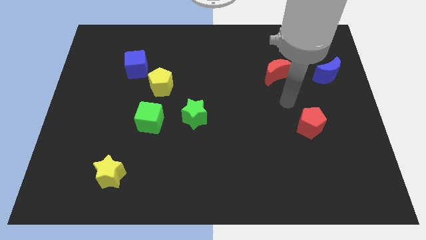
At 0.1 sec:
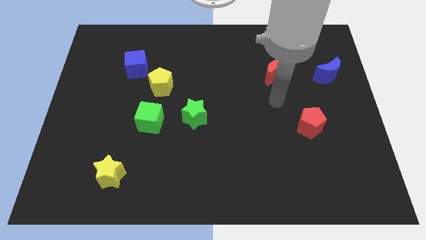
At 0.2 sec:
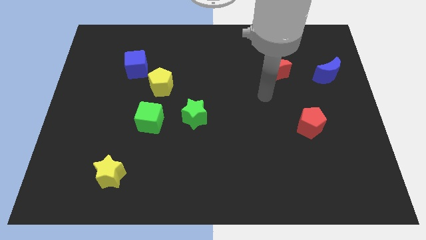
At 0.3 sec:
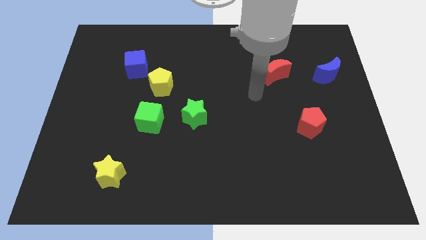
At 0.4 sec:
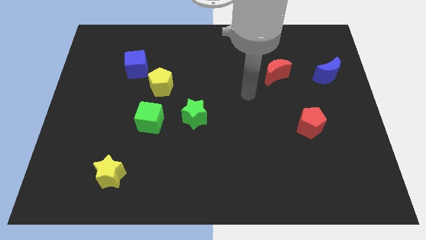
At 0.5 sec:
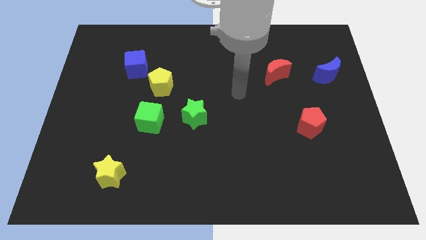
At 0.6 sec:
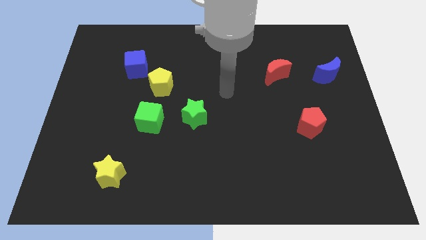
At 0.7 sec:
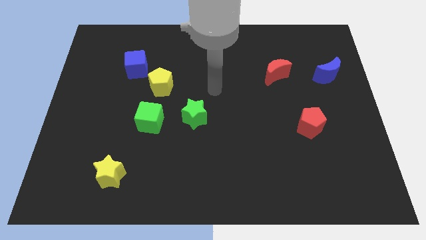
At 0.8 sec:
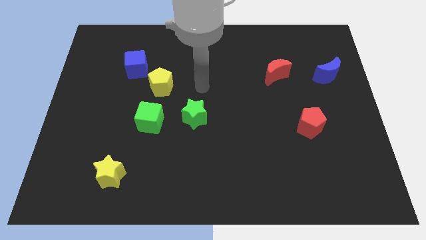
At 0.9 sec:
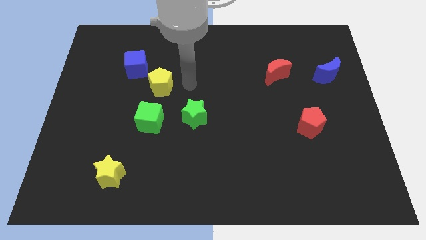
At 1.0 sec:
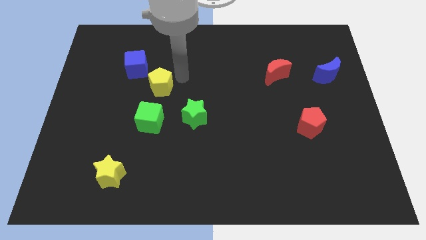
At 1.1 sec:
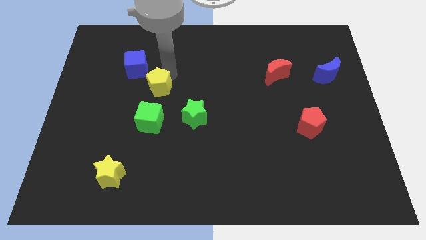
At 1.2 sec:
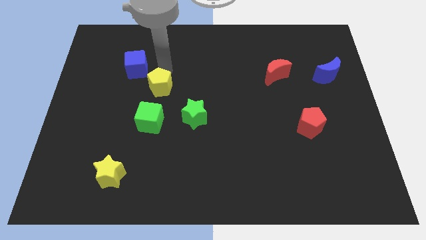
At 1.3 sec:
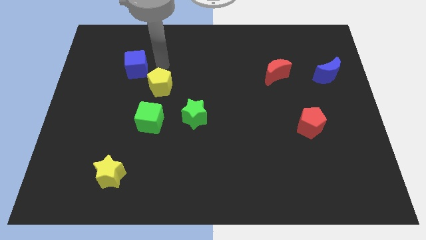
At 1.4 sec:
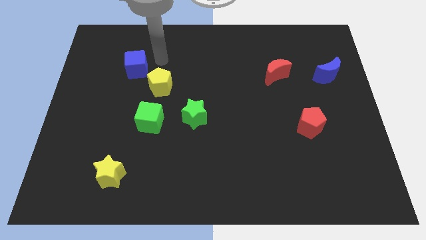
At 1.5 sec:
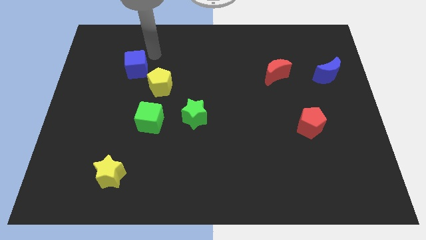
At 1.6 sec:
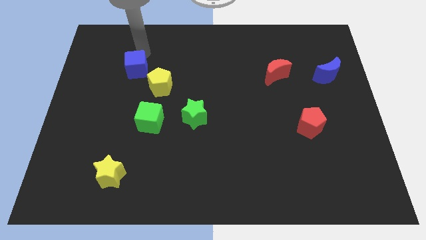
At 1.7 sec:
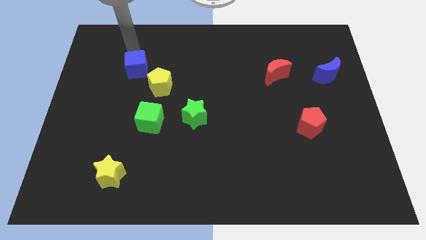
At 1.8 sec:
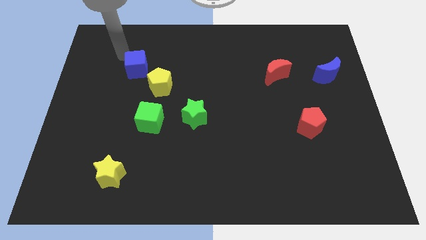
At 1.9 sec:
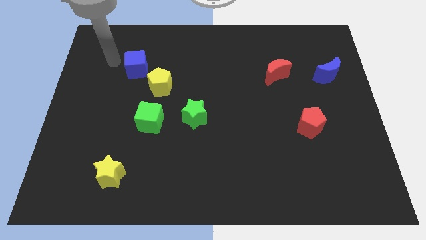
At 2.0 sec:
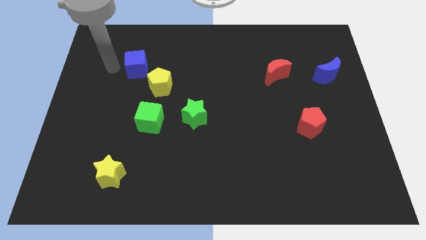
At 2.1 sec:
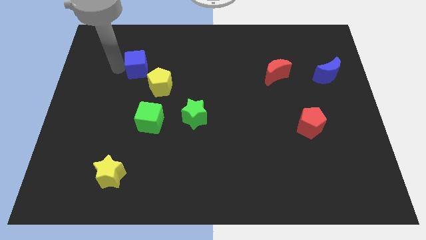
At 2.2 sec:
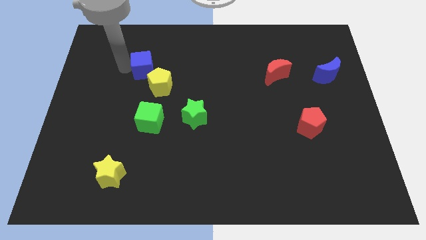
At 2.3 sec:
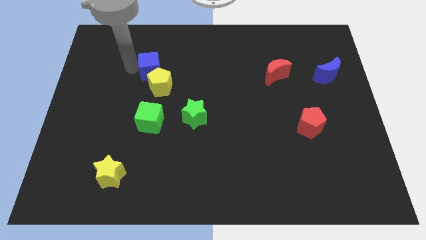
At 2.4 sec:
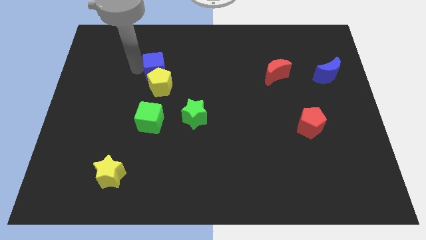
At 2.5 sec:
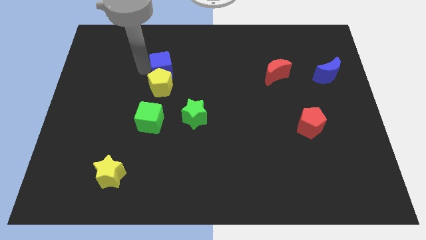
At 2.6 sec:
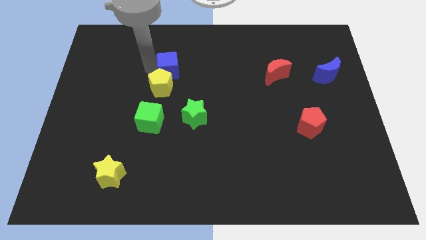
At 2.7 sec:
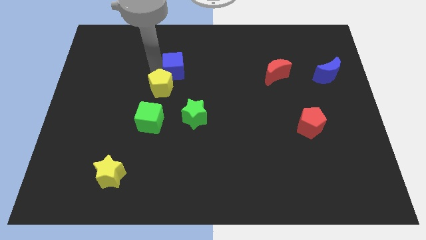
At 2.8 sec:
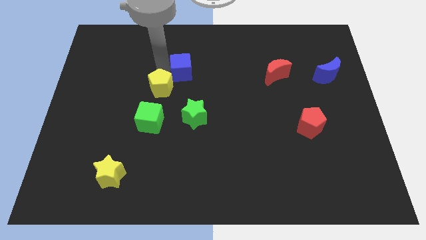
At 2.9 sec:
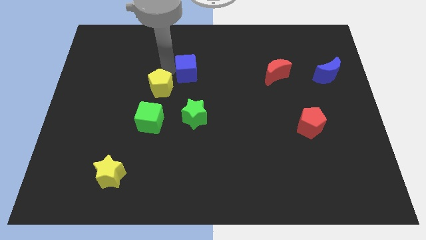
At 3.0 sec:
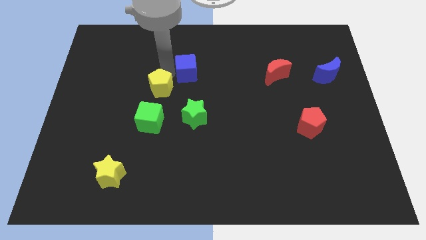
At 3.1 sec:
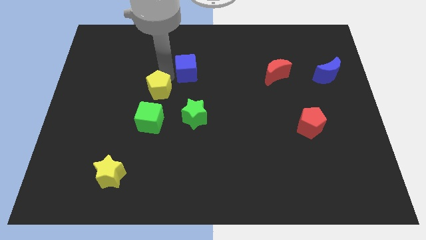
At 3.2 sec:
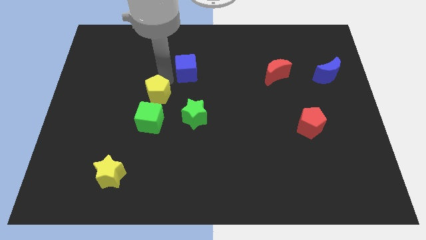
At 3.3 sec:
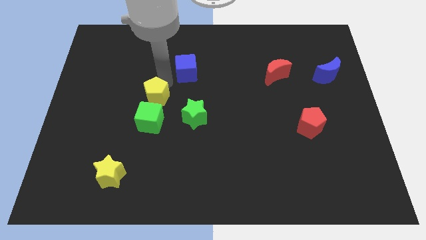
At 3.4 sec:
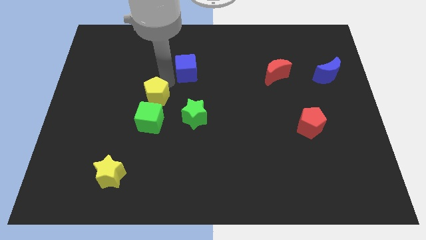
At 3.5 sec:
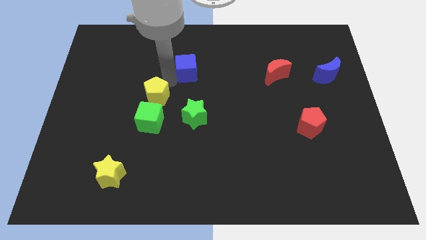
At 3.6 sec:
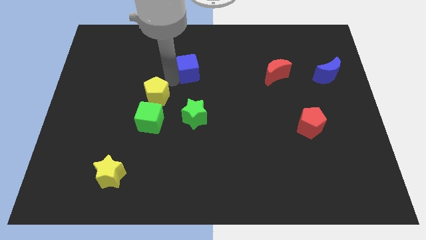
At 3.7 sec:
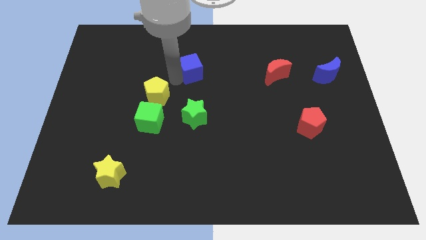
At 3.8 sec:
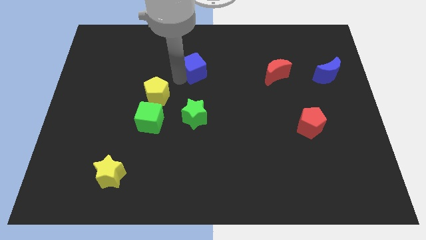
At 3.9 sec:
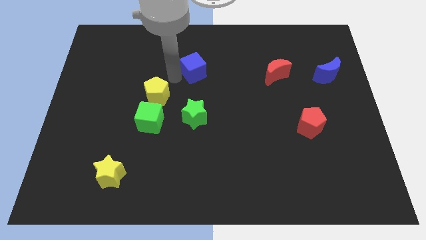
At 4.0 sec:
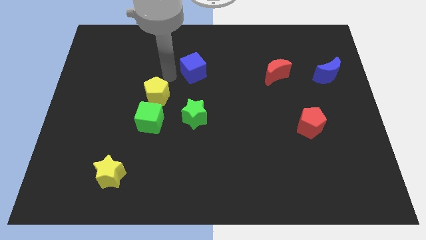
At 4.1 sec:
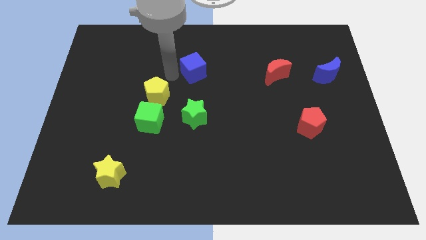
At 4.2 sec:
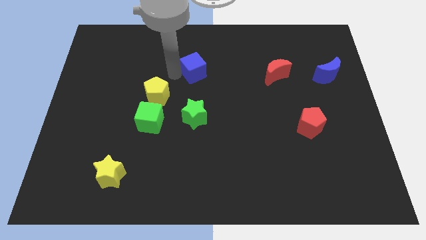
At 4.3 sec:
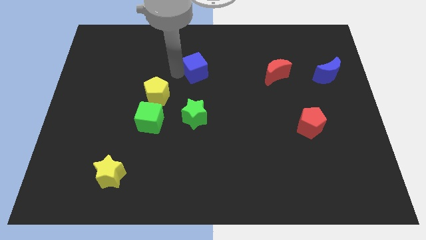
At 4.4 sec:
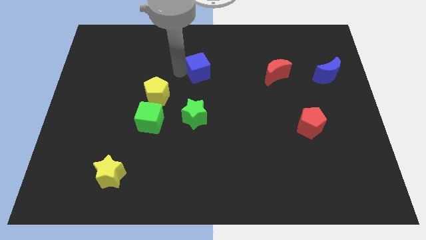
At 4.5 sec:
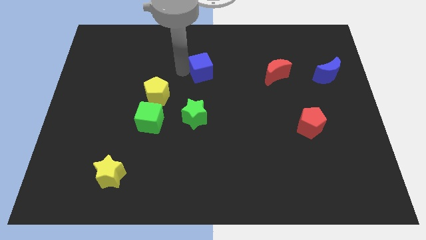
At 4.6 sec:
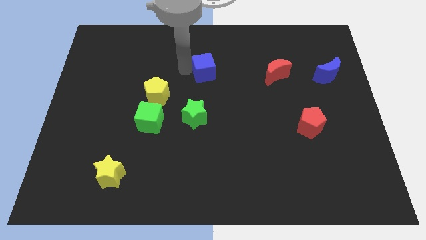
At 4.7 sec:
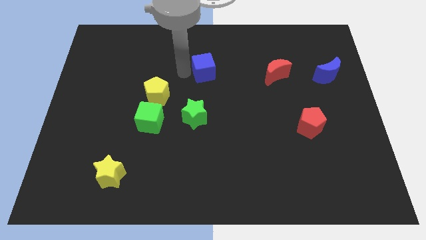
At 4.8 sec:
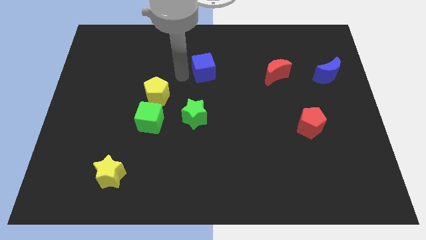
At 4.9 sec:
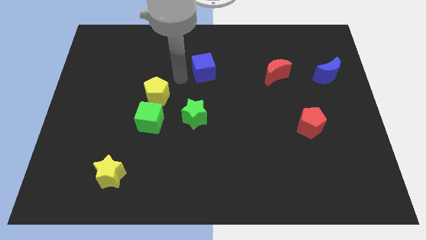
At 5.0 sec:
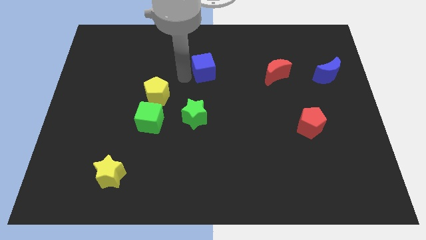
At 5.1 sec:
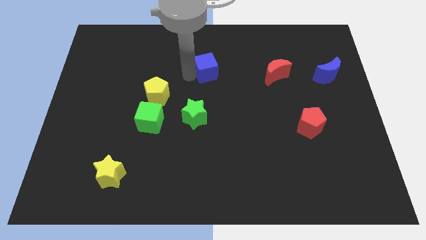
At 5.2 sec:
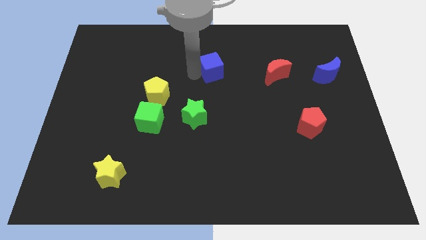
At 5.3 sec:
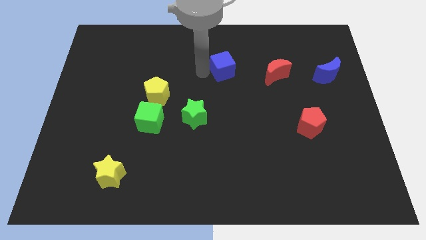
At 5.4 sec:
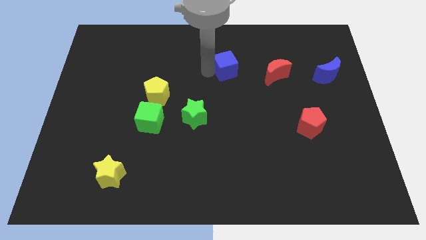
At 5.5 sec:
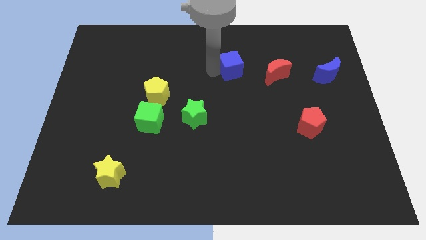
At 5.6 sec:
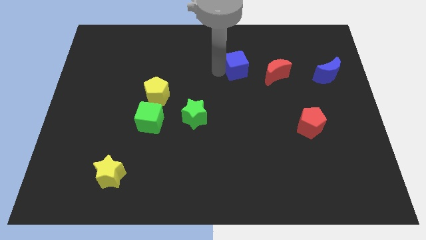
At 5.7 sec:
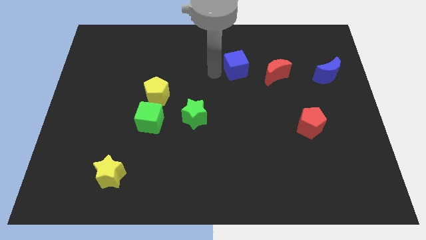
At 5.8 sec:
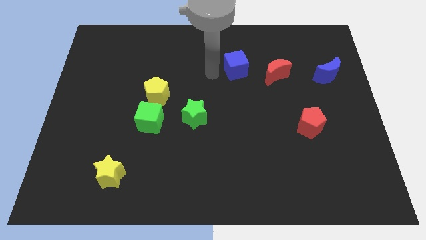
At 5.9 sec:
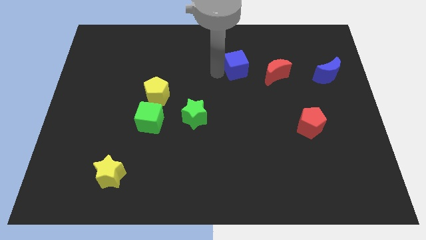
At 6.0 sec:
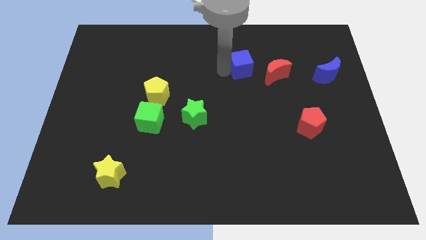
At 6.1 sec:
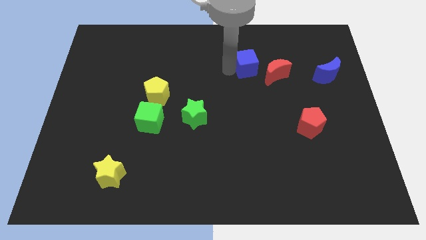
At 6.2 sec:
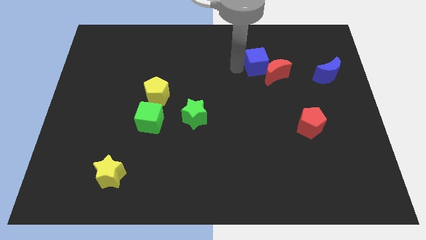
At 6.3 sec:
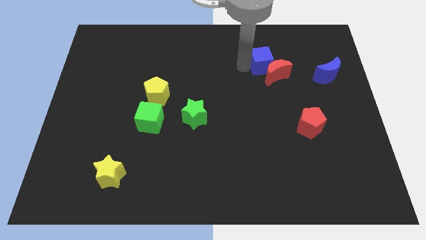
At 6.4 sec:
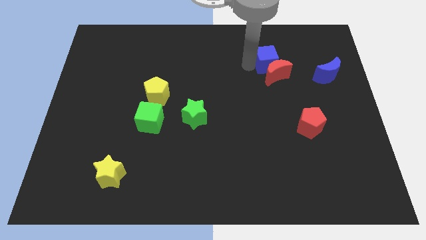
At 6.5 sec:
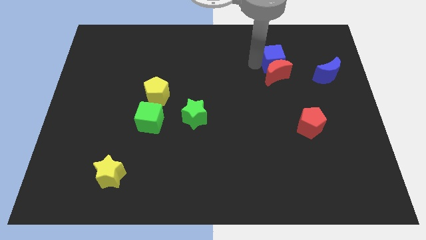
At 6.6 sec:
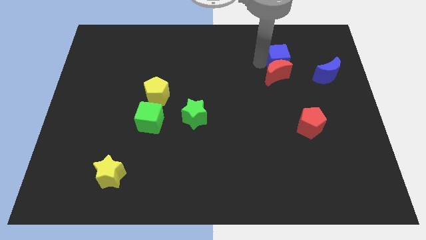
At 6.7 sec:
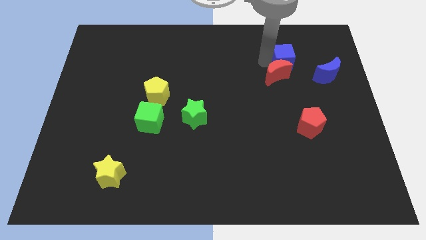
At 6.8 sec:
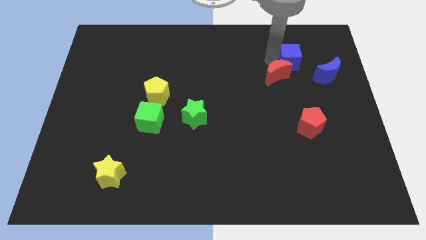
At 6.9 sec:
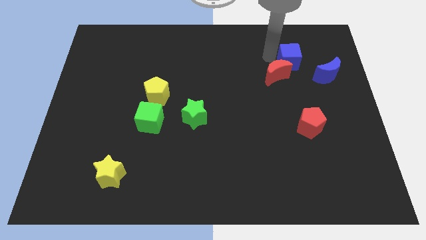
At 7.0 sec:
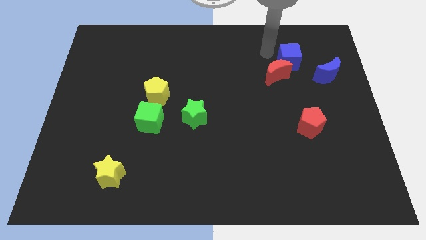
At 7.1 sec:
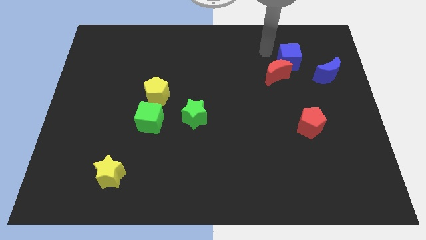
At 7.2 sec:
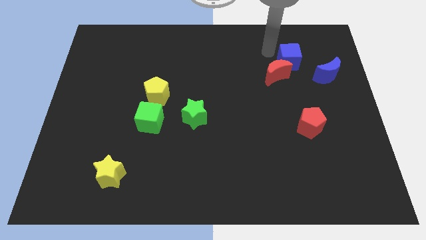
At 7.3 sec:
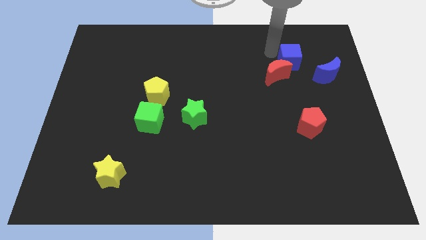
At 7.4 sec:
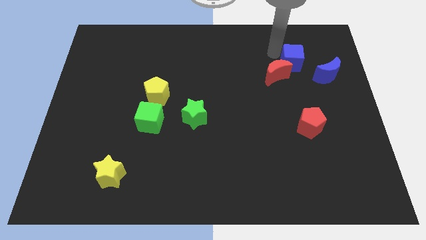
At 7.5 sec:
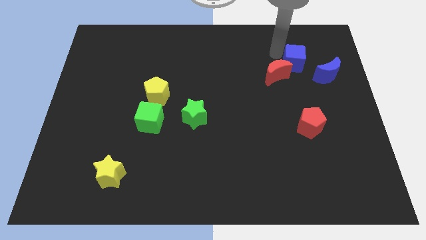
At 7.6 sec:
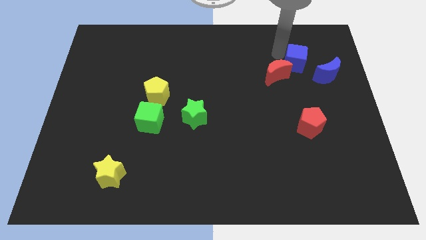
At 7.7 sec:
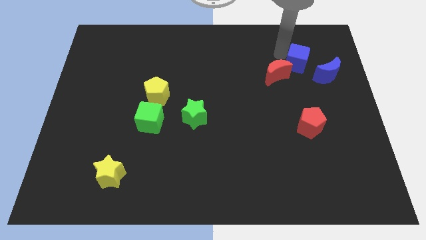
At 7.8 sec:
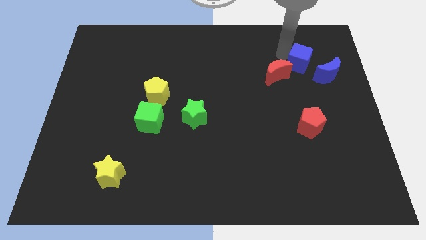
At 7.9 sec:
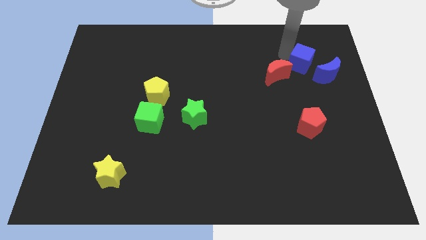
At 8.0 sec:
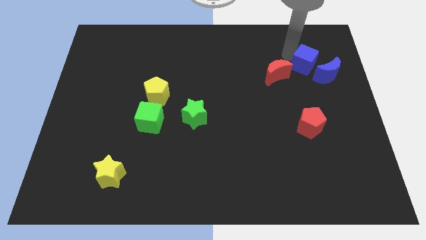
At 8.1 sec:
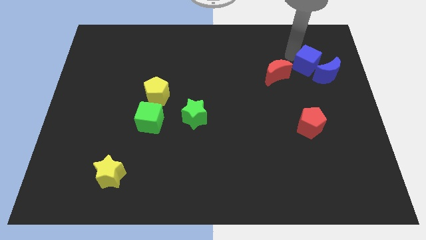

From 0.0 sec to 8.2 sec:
move the blue cube to the blue moon
